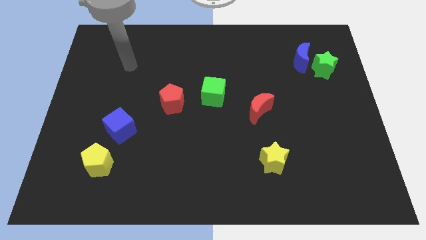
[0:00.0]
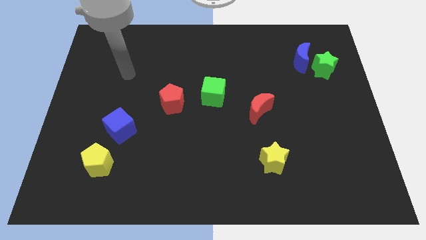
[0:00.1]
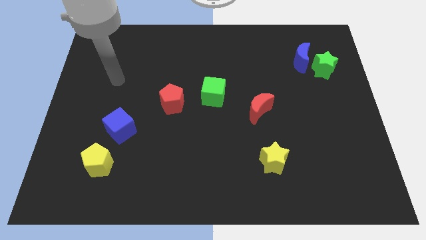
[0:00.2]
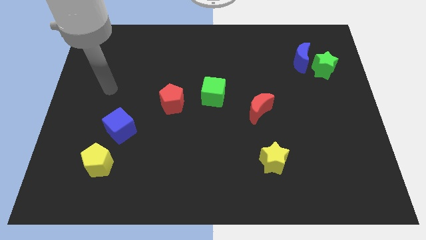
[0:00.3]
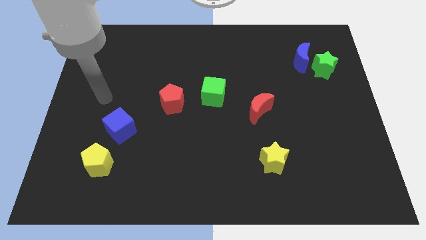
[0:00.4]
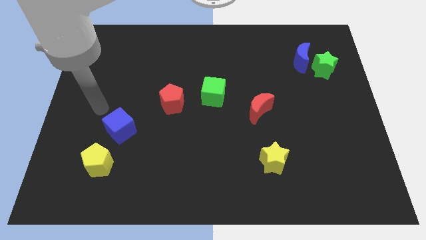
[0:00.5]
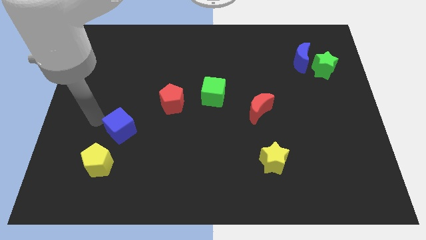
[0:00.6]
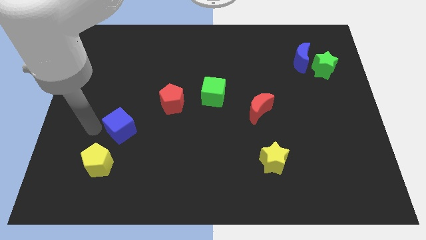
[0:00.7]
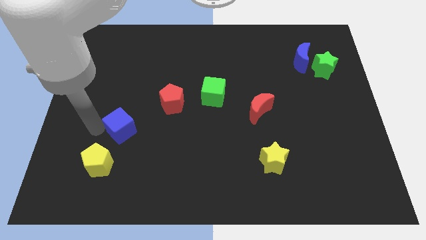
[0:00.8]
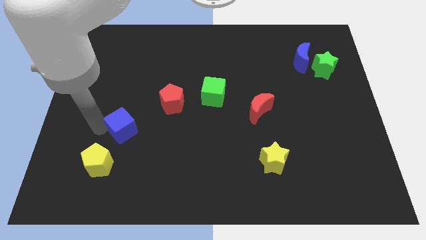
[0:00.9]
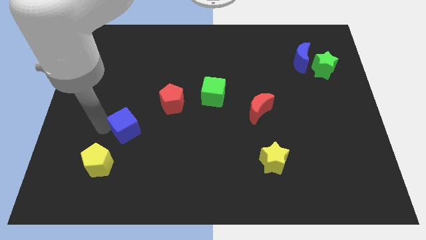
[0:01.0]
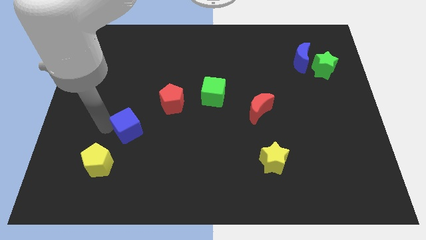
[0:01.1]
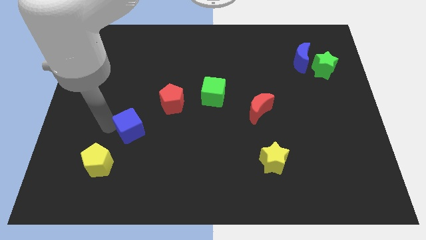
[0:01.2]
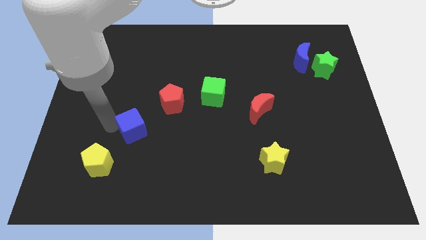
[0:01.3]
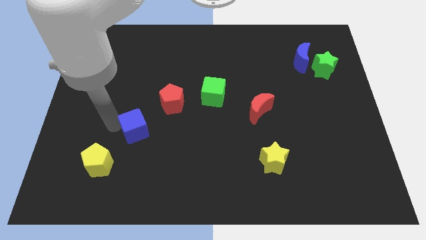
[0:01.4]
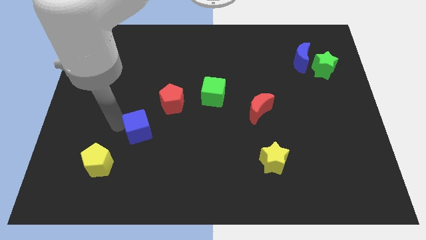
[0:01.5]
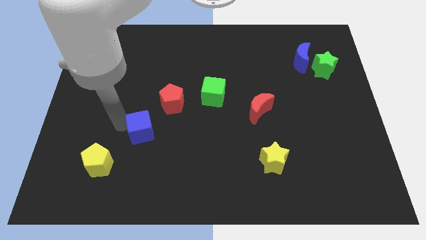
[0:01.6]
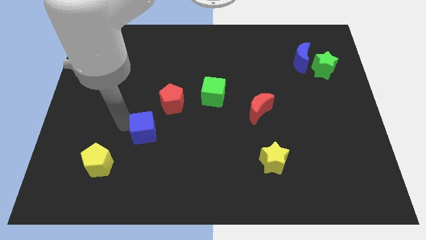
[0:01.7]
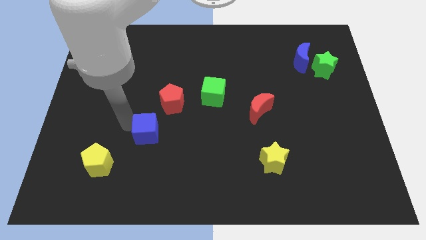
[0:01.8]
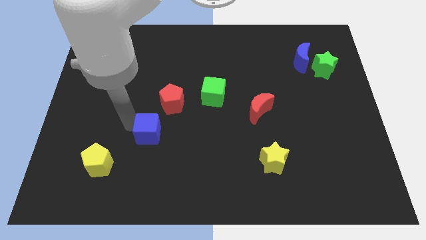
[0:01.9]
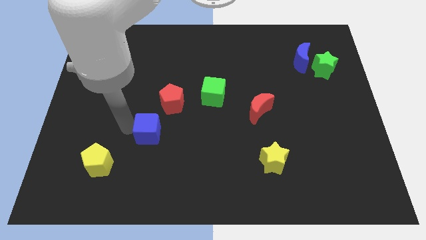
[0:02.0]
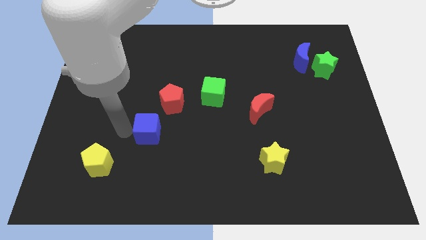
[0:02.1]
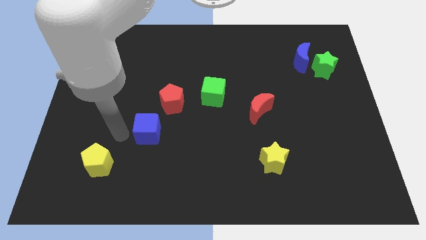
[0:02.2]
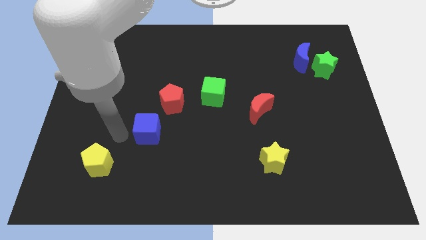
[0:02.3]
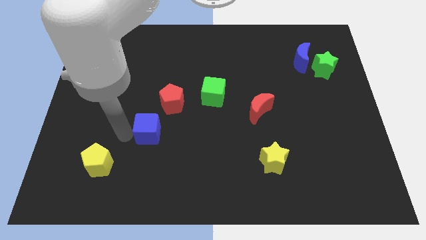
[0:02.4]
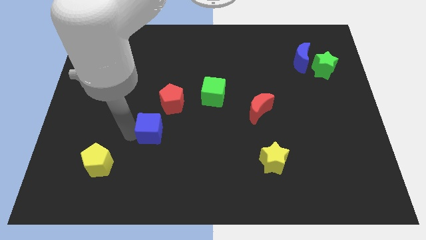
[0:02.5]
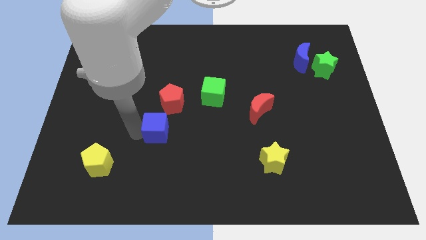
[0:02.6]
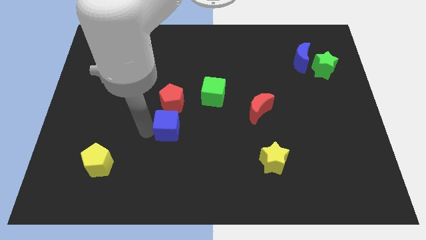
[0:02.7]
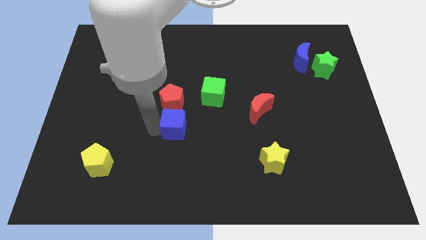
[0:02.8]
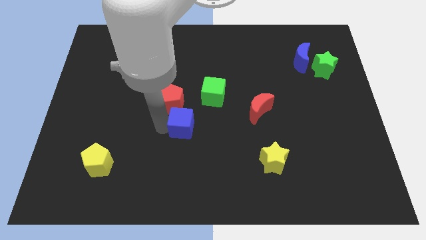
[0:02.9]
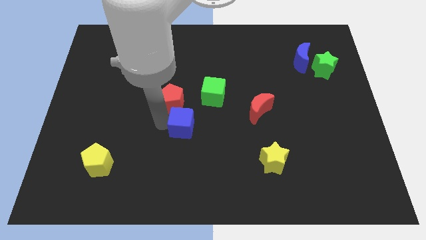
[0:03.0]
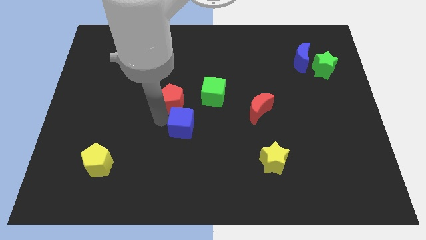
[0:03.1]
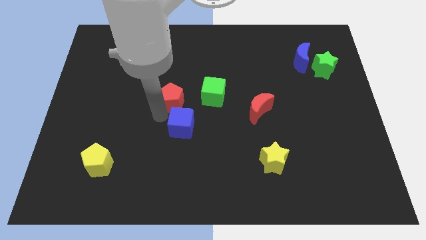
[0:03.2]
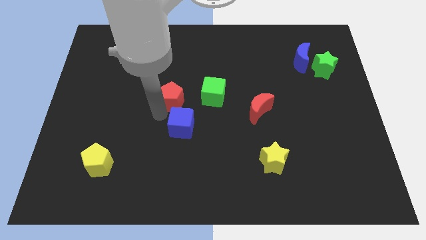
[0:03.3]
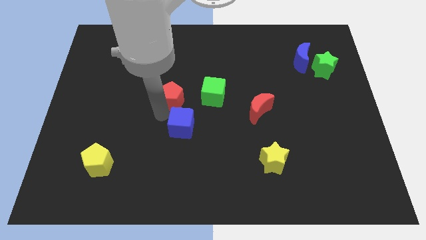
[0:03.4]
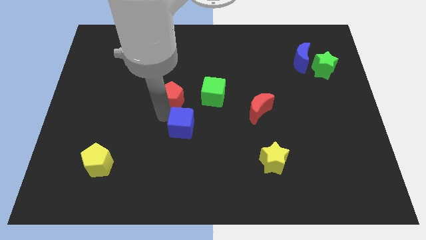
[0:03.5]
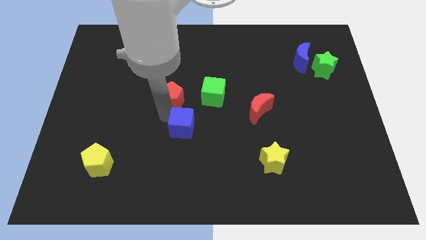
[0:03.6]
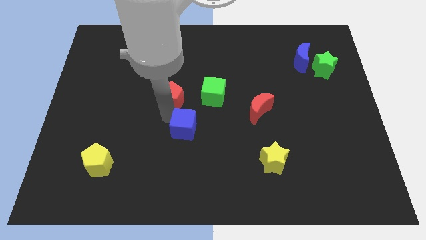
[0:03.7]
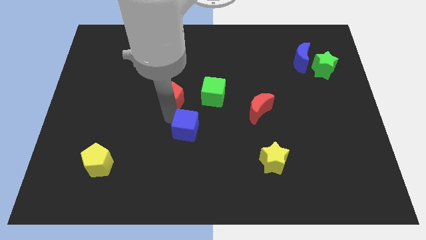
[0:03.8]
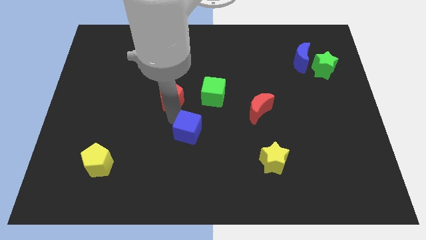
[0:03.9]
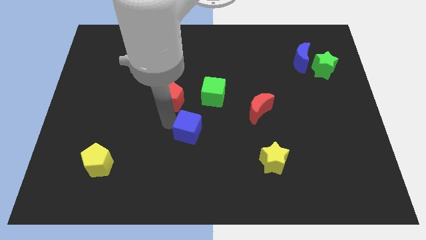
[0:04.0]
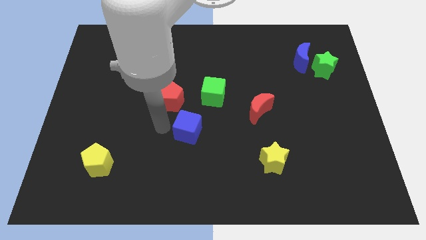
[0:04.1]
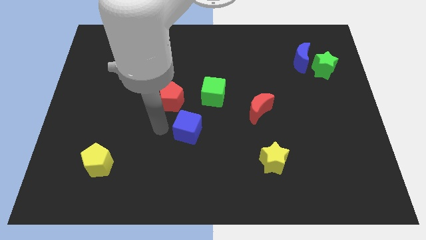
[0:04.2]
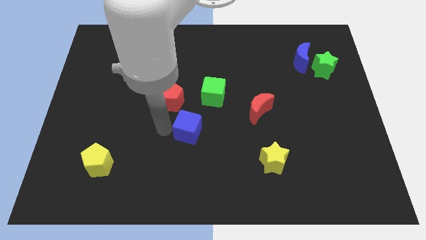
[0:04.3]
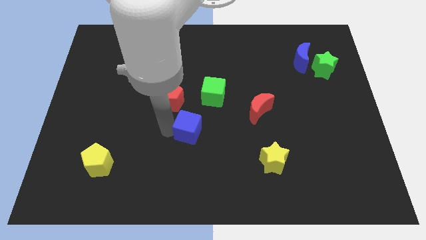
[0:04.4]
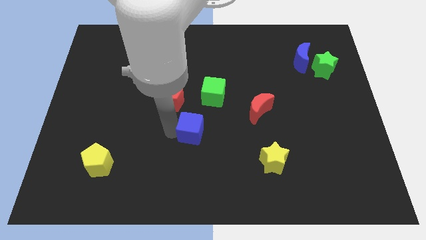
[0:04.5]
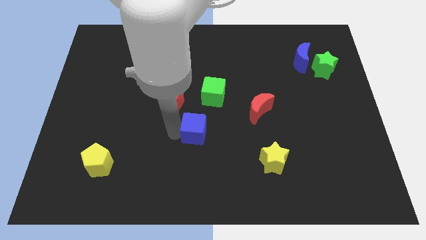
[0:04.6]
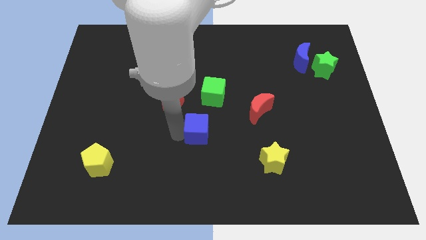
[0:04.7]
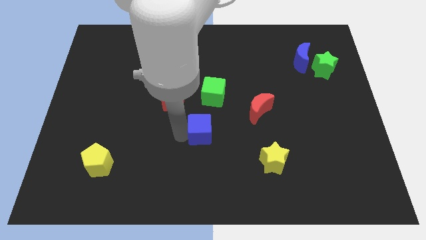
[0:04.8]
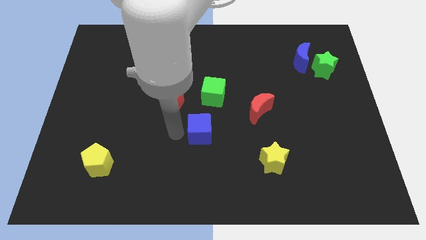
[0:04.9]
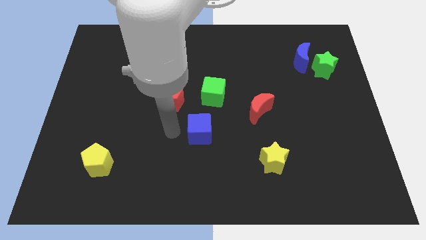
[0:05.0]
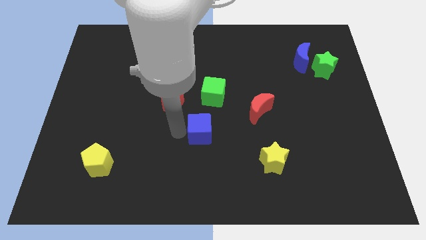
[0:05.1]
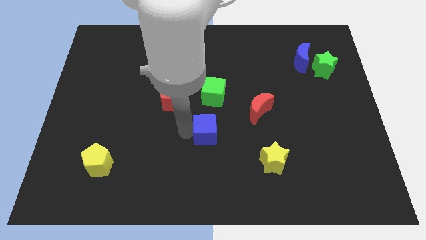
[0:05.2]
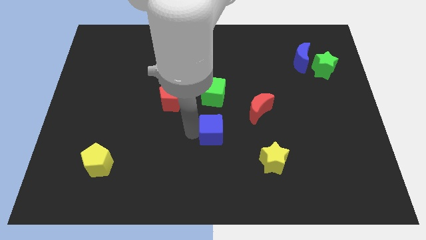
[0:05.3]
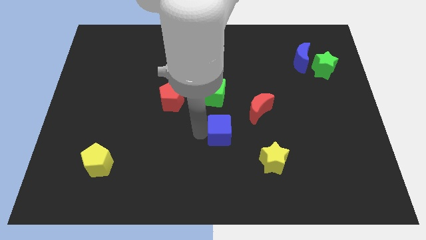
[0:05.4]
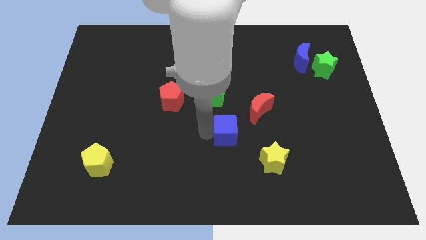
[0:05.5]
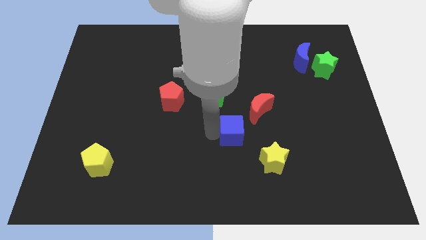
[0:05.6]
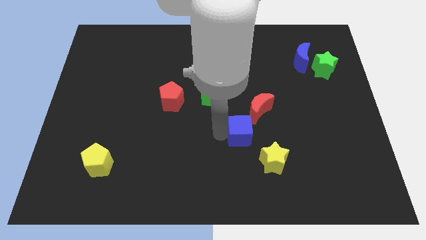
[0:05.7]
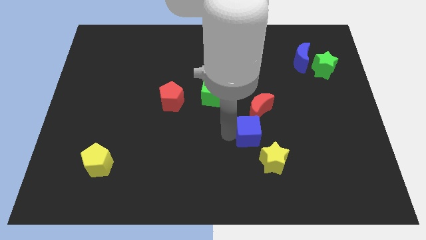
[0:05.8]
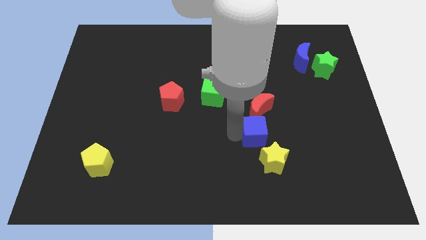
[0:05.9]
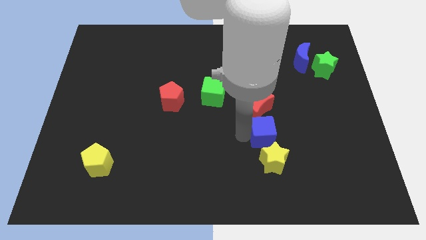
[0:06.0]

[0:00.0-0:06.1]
slide the blue cube diagonally down and to the right of the red moon

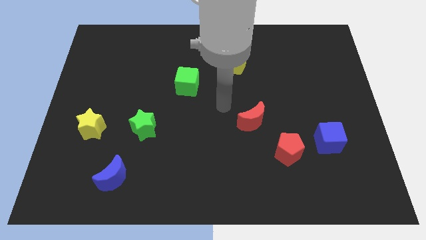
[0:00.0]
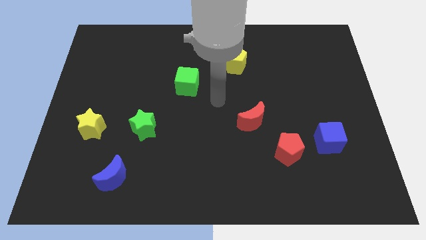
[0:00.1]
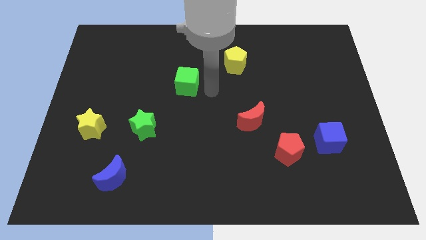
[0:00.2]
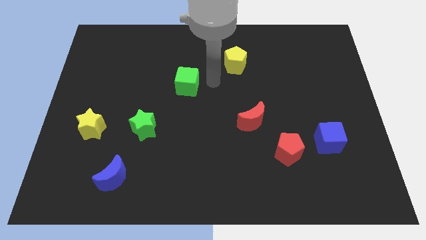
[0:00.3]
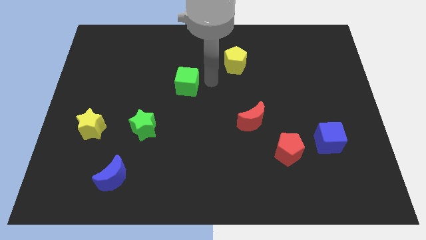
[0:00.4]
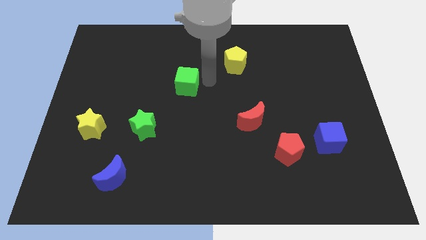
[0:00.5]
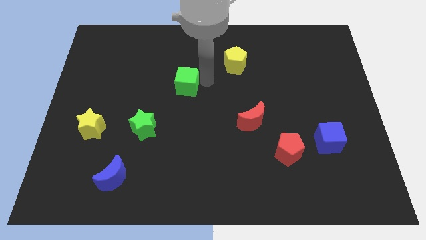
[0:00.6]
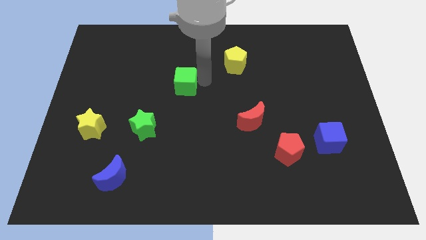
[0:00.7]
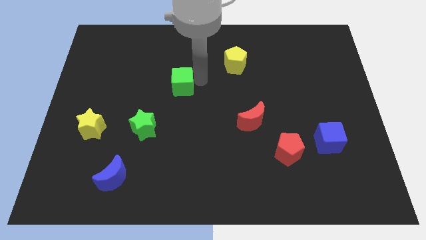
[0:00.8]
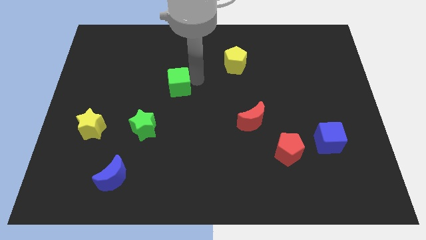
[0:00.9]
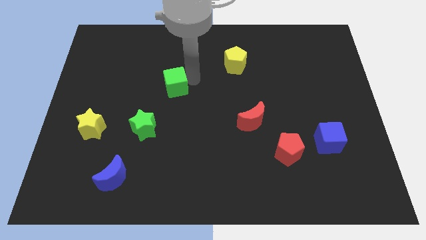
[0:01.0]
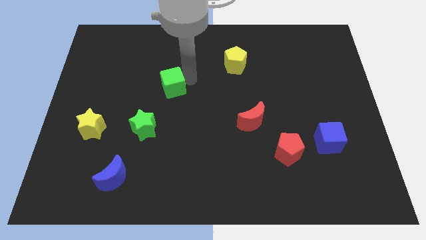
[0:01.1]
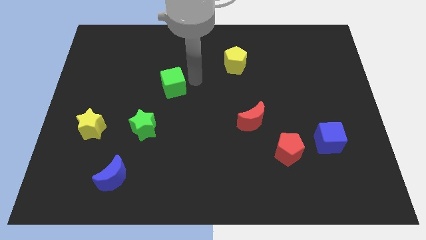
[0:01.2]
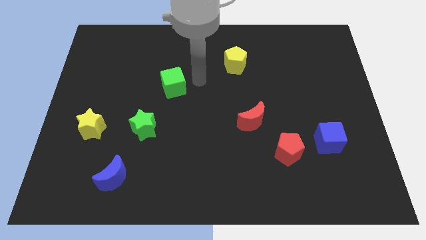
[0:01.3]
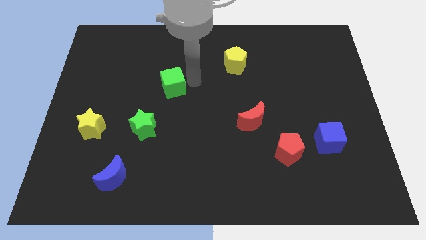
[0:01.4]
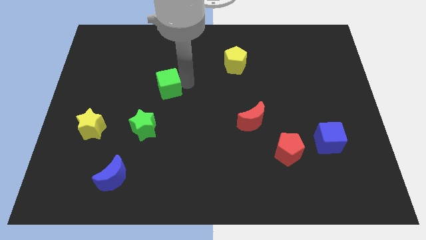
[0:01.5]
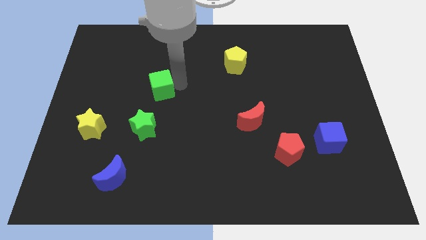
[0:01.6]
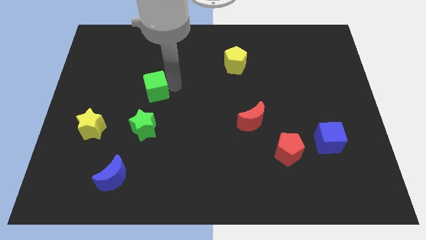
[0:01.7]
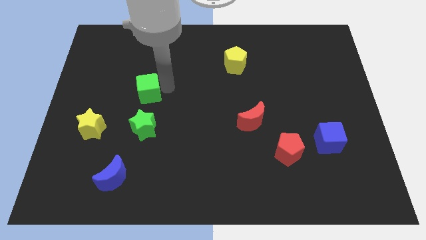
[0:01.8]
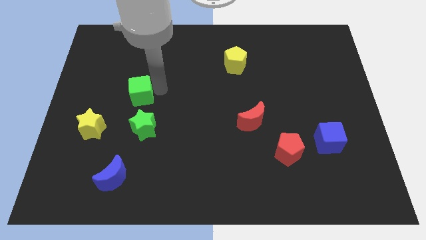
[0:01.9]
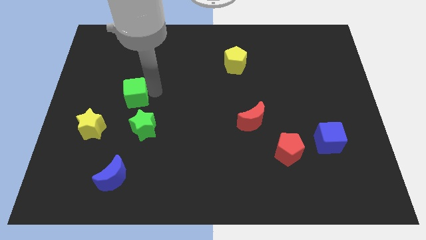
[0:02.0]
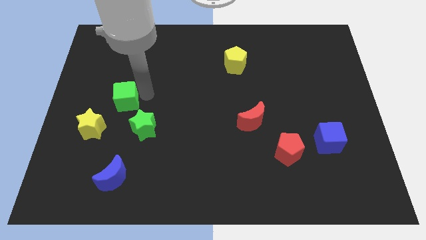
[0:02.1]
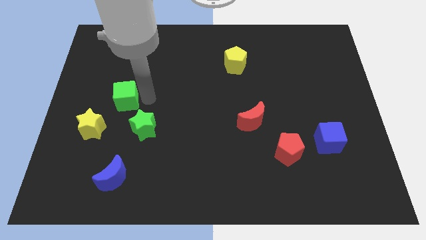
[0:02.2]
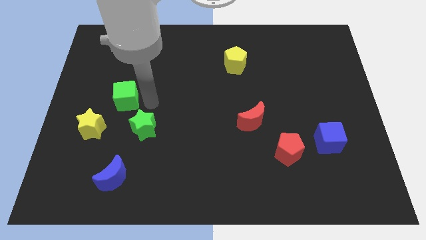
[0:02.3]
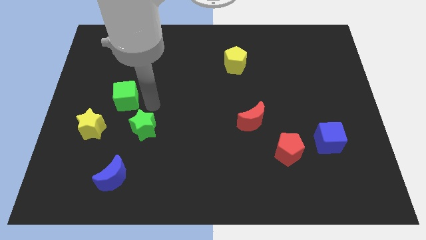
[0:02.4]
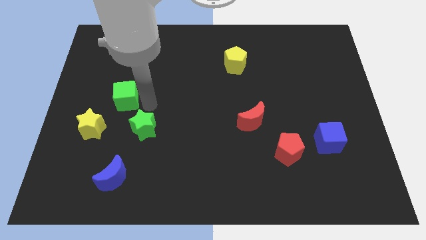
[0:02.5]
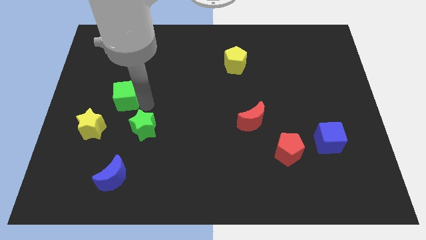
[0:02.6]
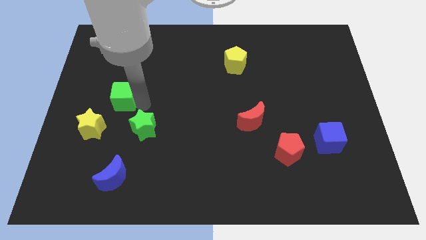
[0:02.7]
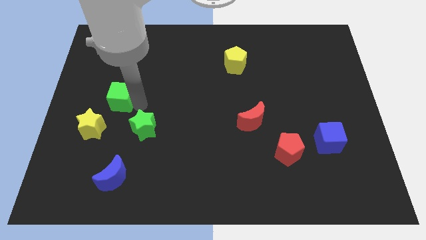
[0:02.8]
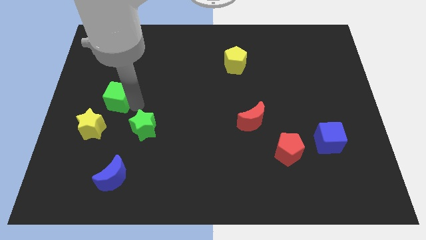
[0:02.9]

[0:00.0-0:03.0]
push the green cube to the top of the yellow star
